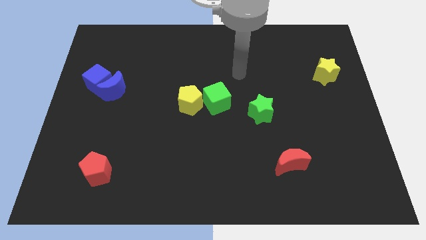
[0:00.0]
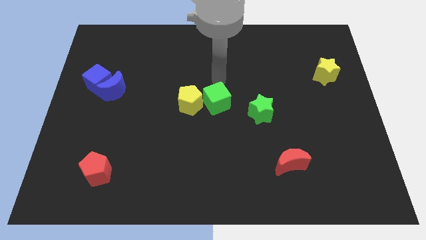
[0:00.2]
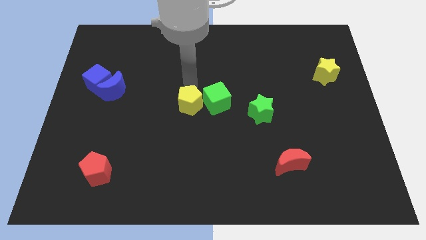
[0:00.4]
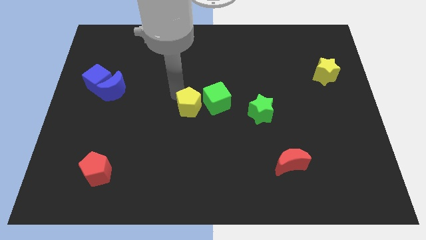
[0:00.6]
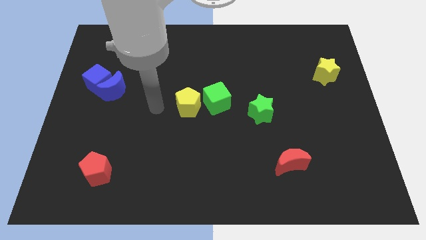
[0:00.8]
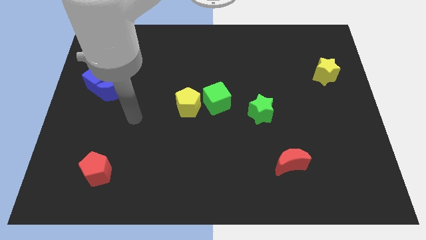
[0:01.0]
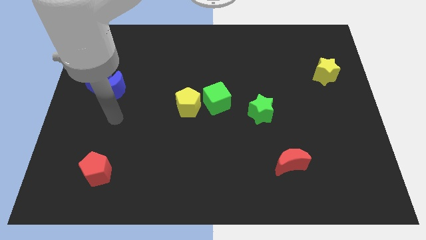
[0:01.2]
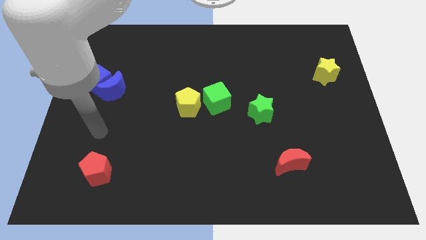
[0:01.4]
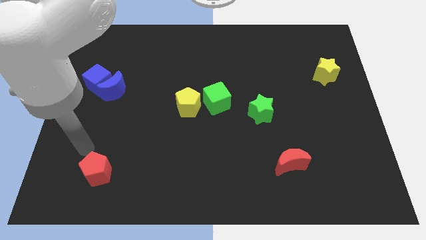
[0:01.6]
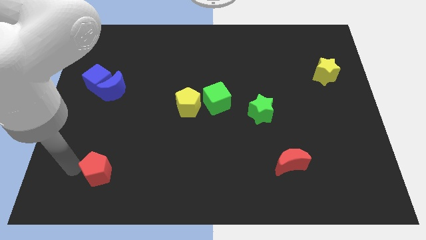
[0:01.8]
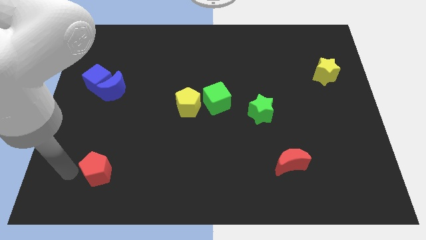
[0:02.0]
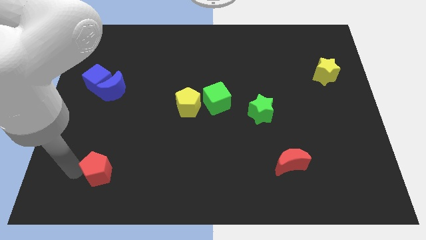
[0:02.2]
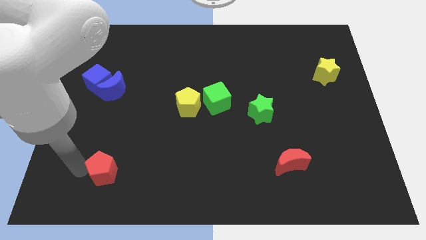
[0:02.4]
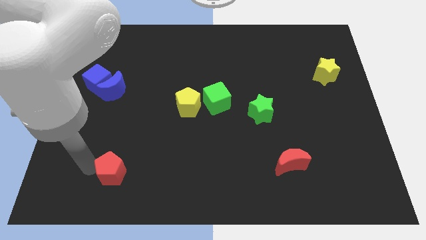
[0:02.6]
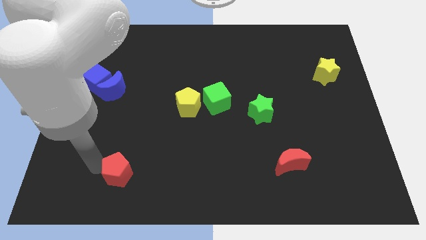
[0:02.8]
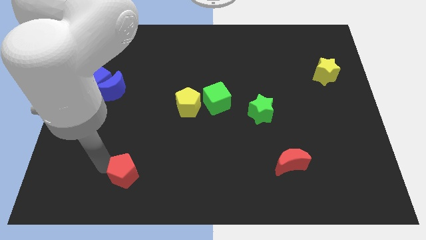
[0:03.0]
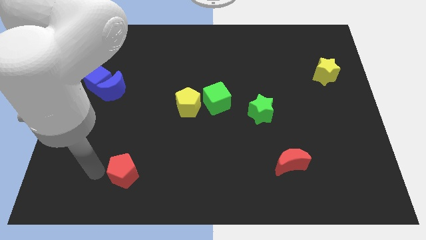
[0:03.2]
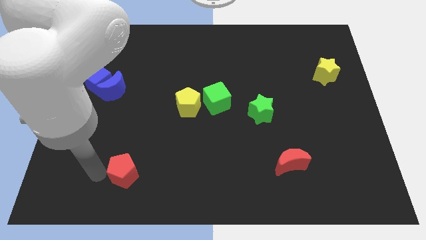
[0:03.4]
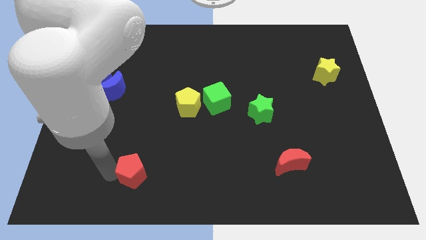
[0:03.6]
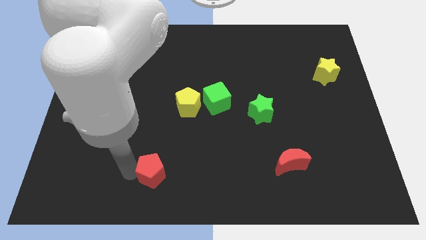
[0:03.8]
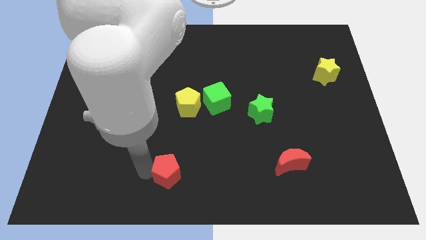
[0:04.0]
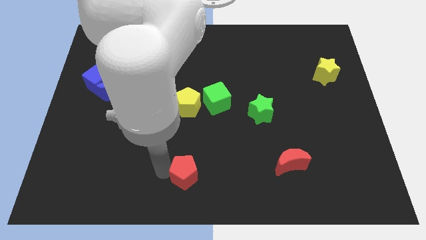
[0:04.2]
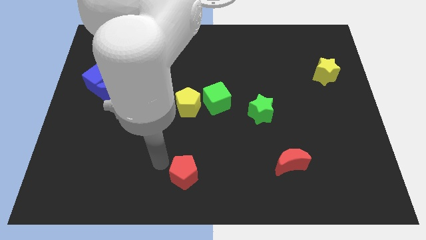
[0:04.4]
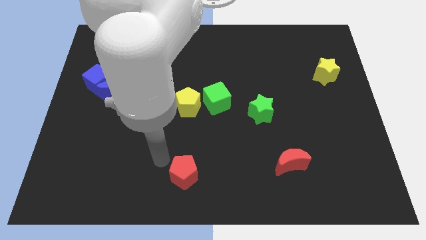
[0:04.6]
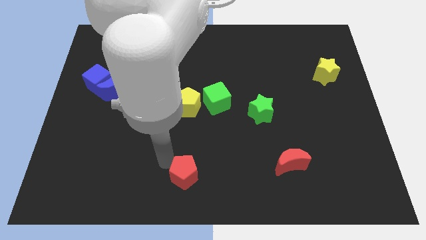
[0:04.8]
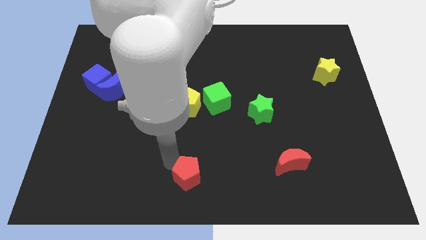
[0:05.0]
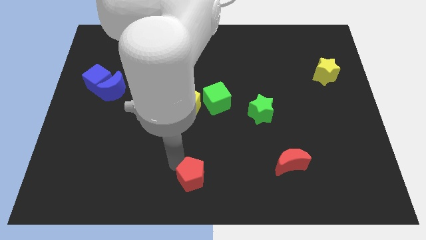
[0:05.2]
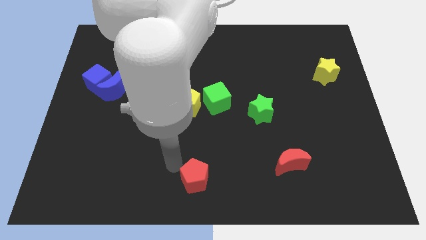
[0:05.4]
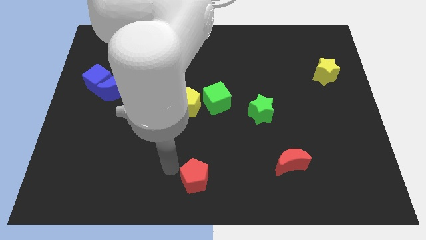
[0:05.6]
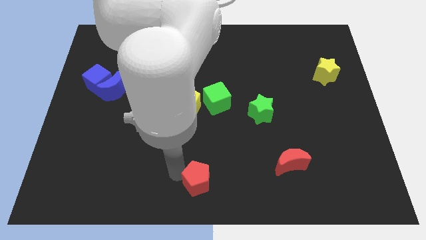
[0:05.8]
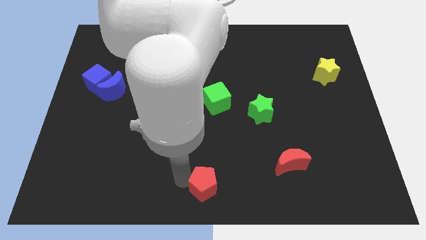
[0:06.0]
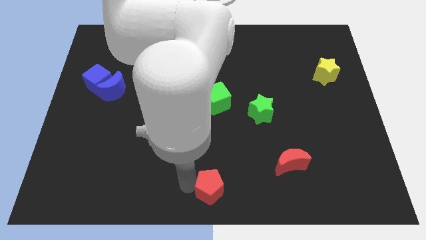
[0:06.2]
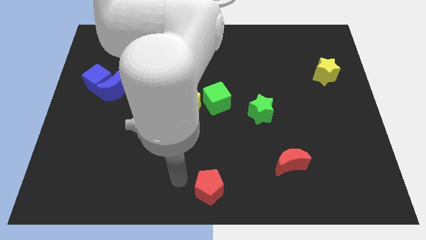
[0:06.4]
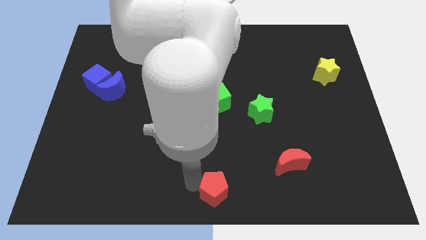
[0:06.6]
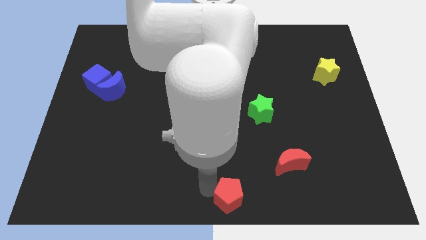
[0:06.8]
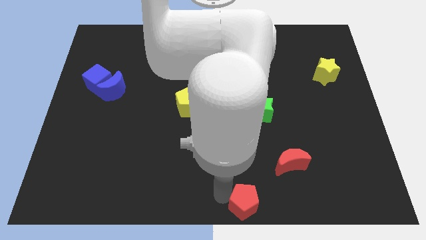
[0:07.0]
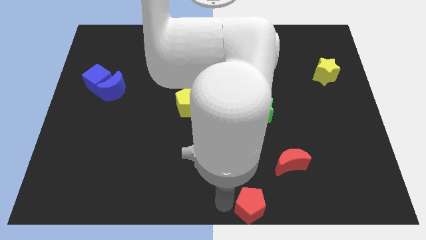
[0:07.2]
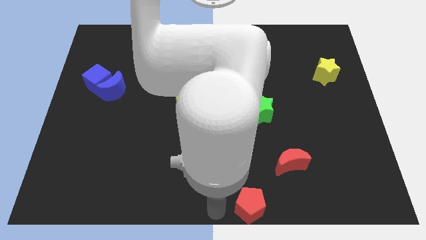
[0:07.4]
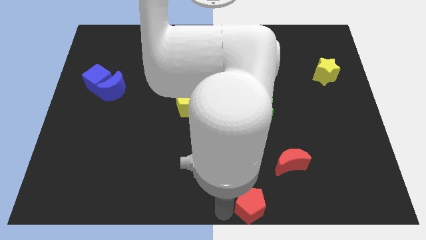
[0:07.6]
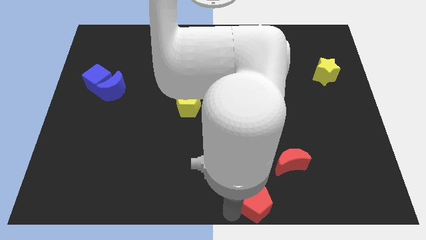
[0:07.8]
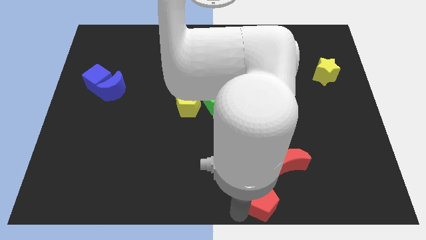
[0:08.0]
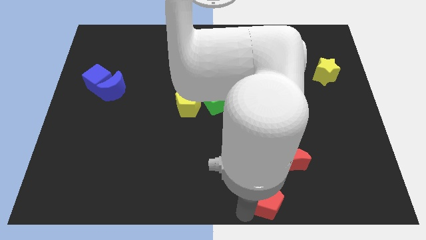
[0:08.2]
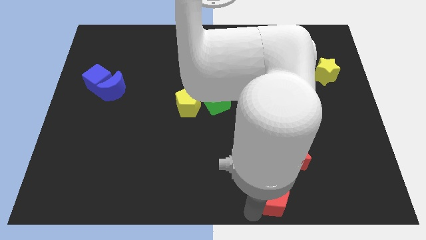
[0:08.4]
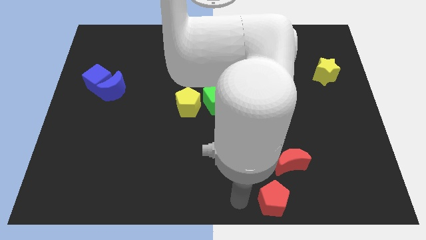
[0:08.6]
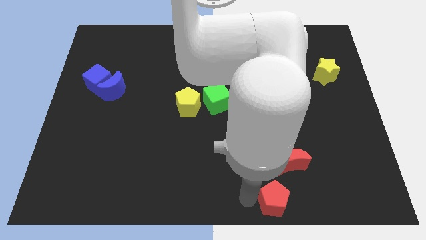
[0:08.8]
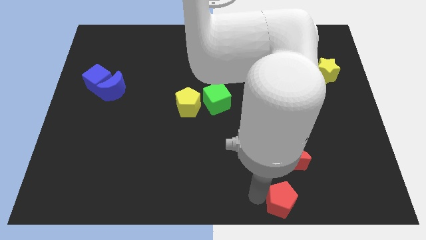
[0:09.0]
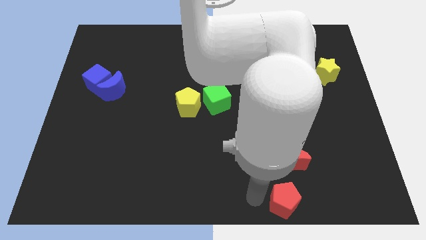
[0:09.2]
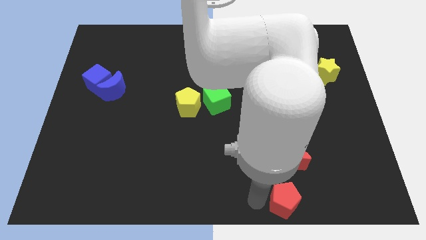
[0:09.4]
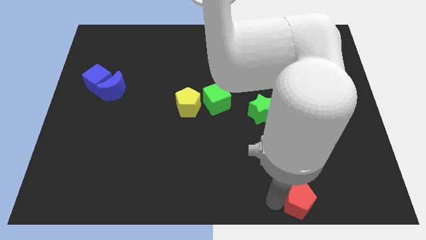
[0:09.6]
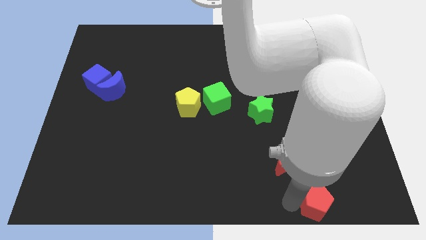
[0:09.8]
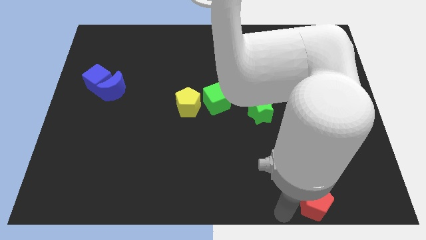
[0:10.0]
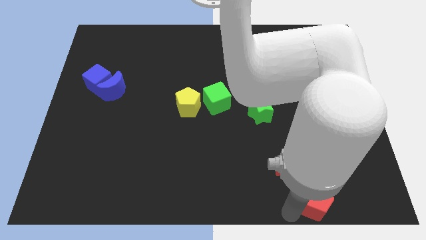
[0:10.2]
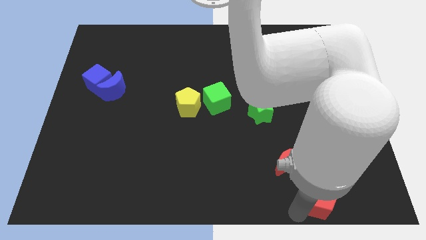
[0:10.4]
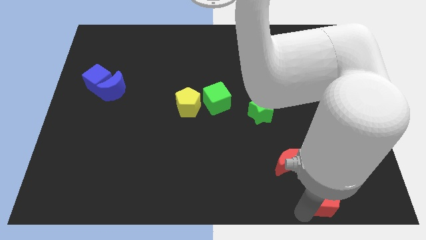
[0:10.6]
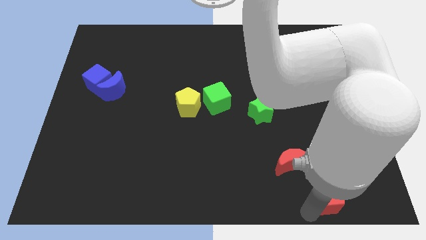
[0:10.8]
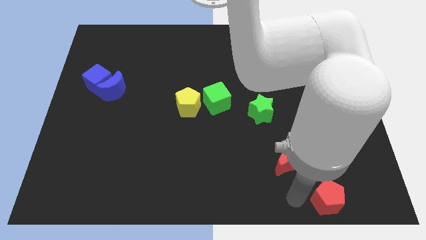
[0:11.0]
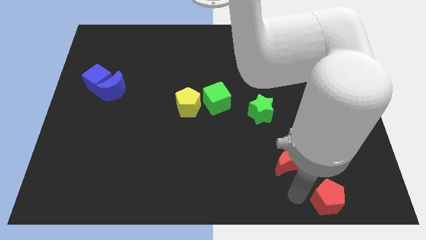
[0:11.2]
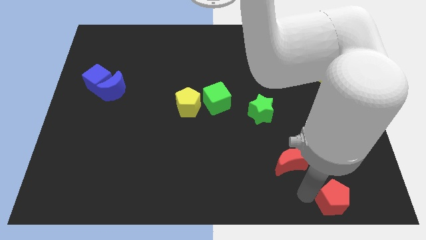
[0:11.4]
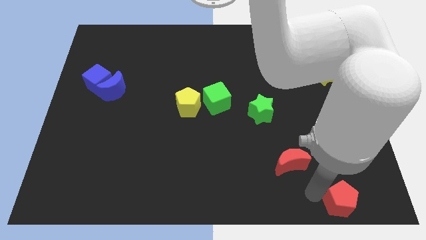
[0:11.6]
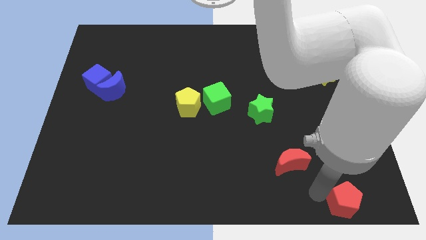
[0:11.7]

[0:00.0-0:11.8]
slide the red pentagon to the bottom right corner
